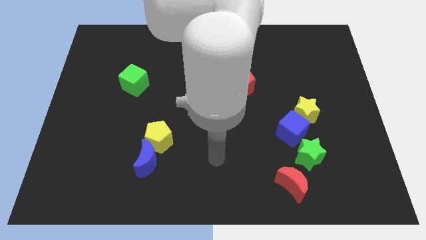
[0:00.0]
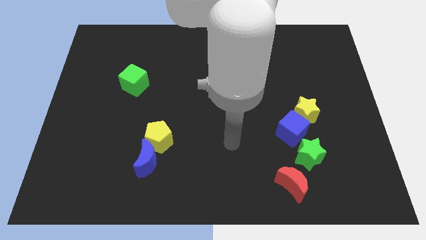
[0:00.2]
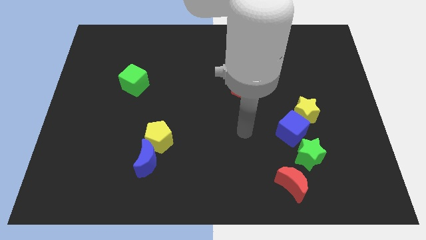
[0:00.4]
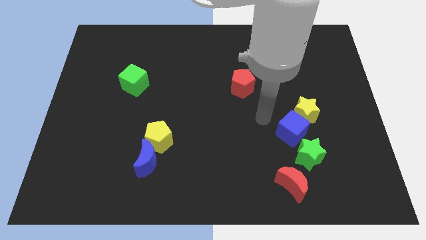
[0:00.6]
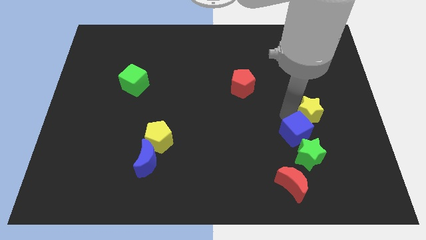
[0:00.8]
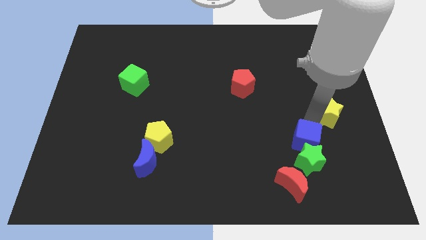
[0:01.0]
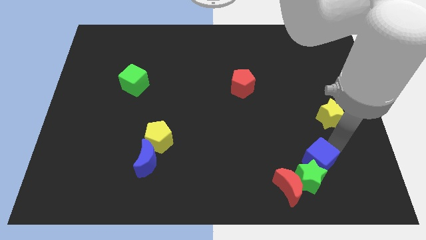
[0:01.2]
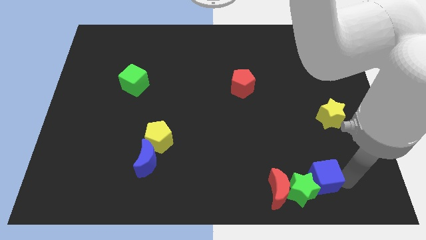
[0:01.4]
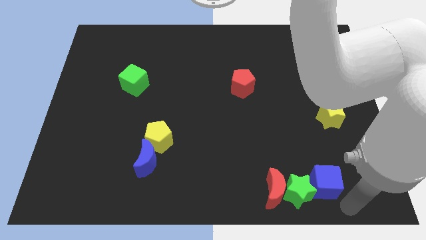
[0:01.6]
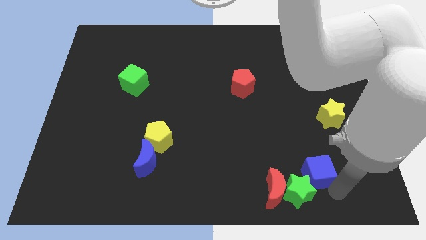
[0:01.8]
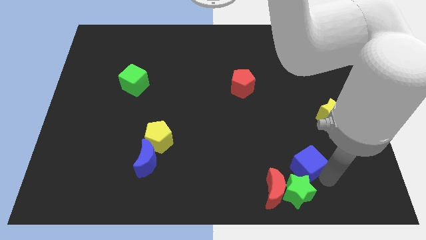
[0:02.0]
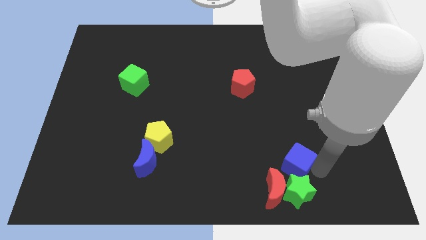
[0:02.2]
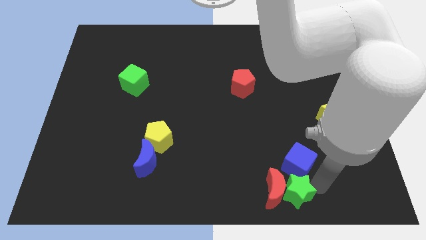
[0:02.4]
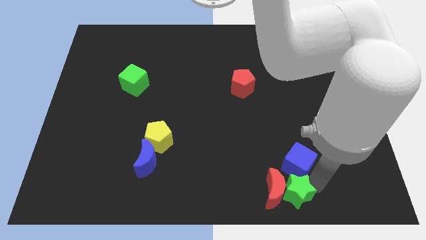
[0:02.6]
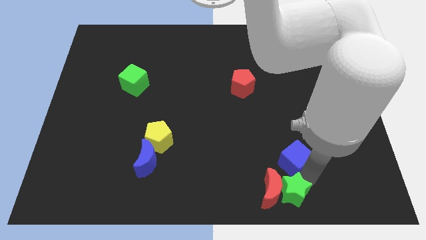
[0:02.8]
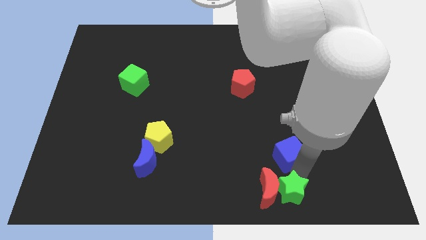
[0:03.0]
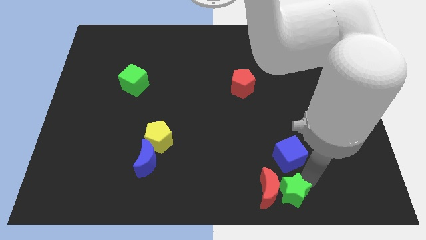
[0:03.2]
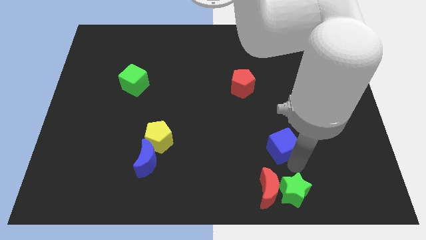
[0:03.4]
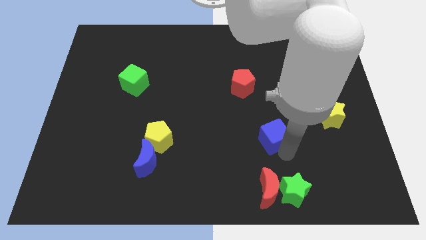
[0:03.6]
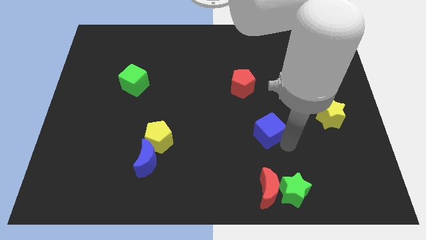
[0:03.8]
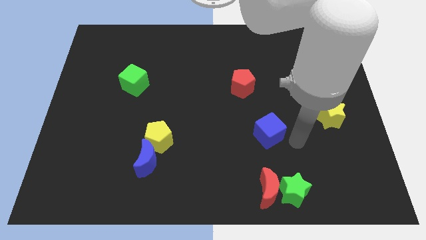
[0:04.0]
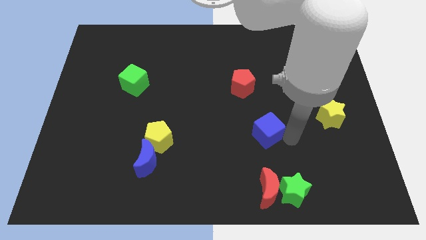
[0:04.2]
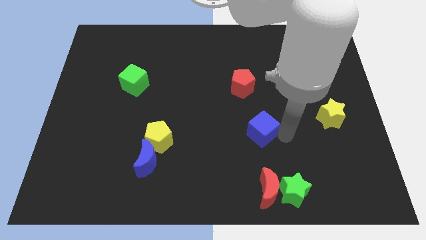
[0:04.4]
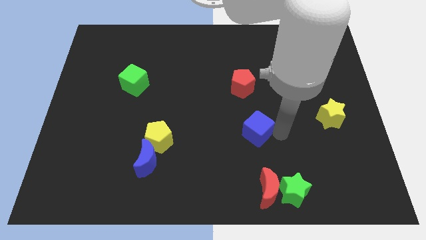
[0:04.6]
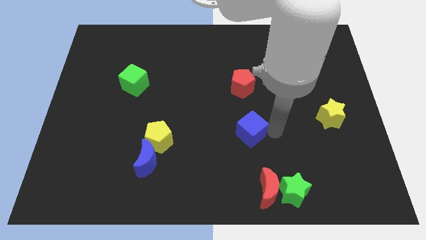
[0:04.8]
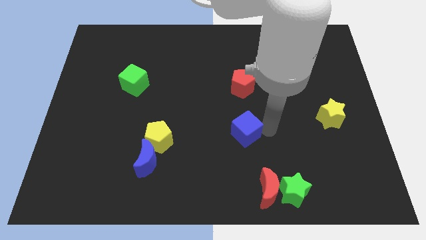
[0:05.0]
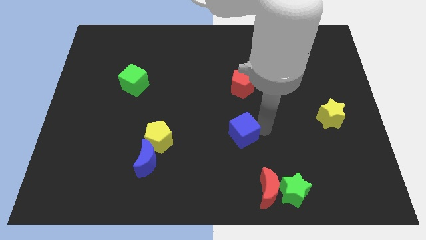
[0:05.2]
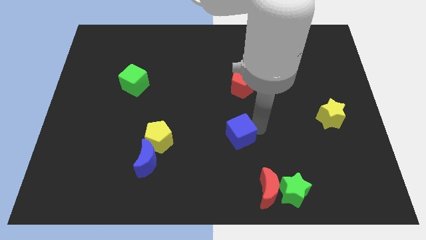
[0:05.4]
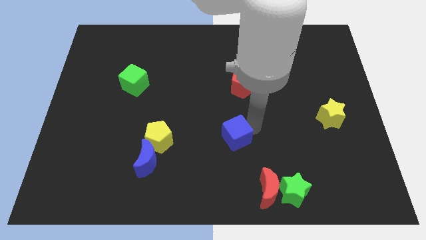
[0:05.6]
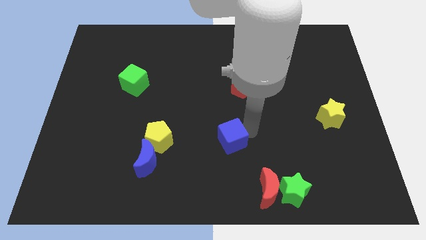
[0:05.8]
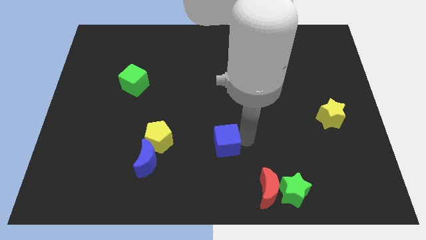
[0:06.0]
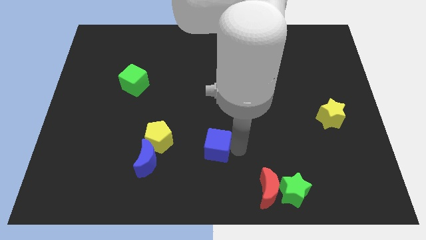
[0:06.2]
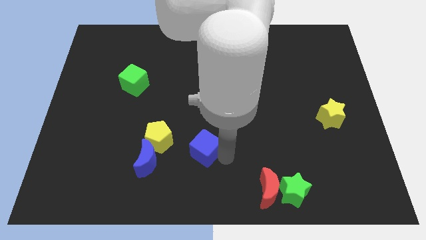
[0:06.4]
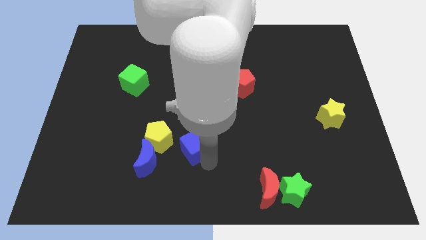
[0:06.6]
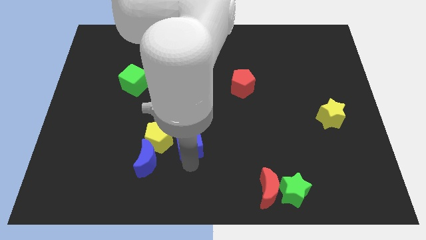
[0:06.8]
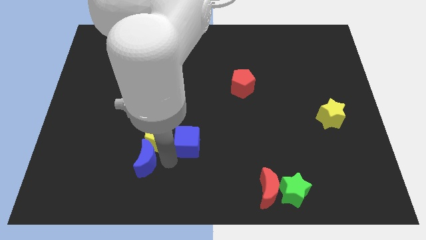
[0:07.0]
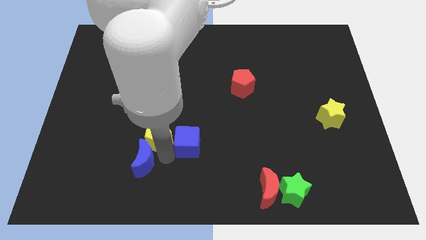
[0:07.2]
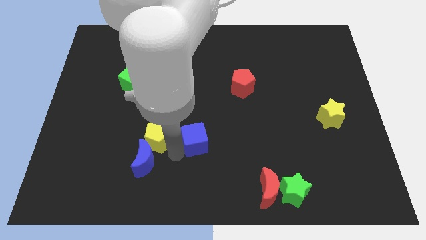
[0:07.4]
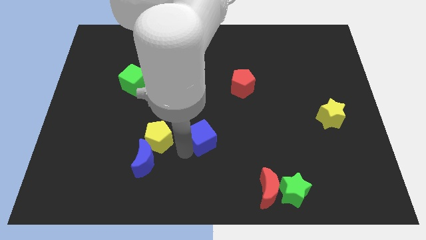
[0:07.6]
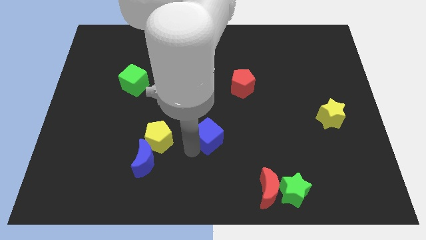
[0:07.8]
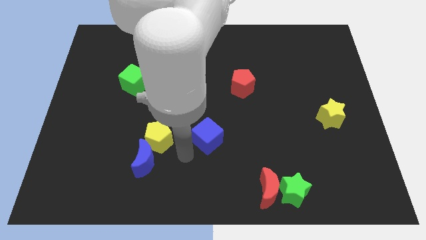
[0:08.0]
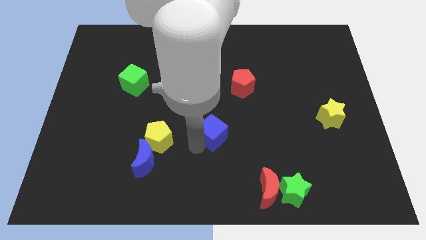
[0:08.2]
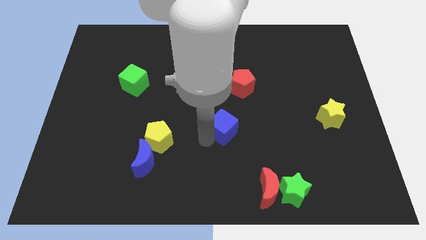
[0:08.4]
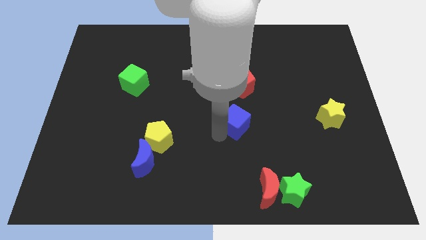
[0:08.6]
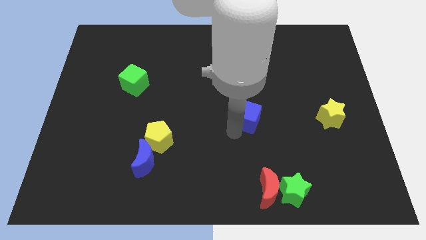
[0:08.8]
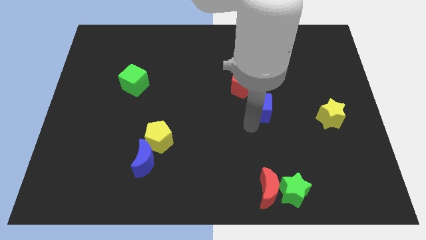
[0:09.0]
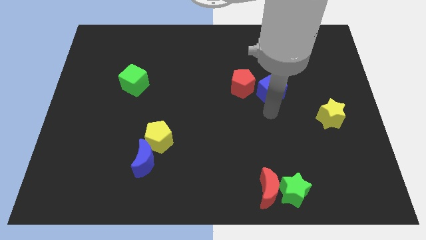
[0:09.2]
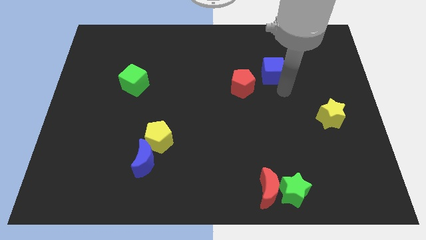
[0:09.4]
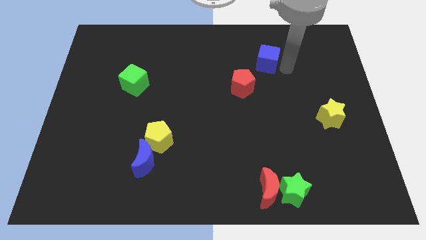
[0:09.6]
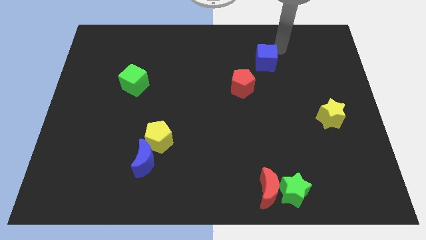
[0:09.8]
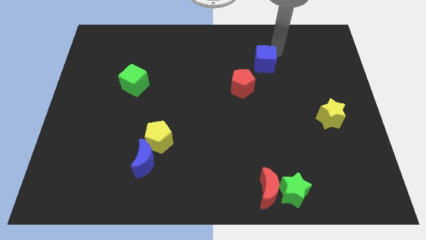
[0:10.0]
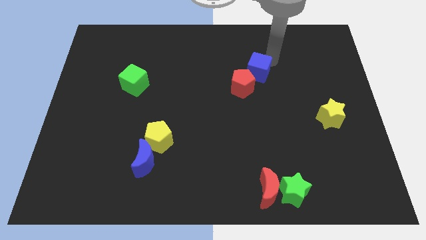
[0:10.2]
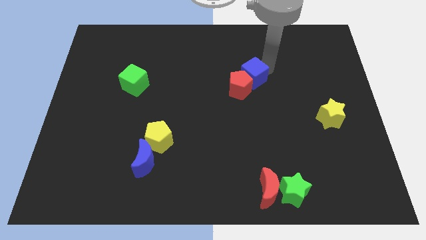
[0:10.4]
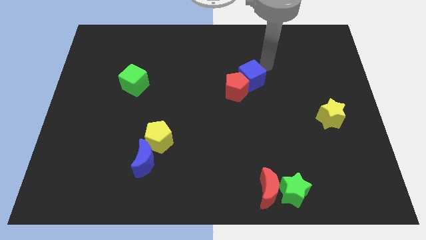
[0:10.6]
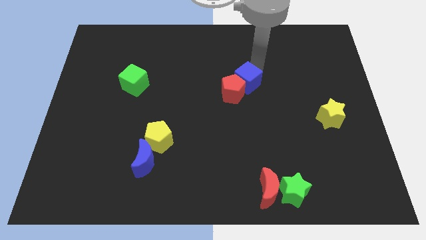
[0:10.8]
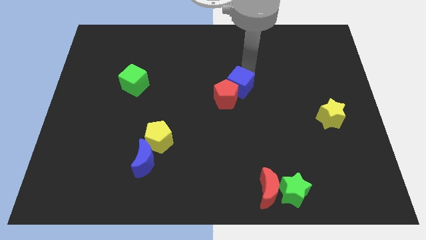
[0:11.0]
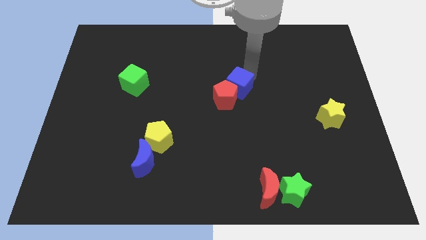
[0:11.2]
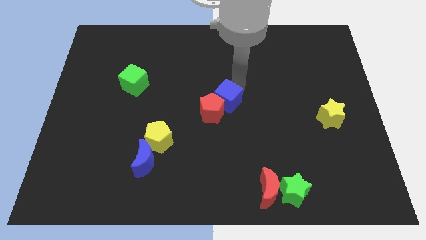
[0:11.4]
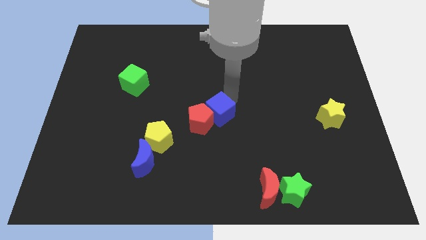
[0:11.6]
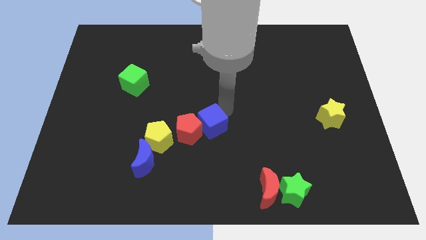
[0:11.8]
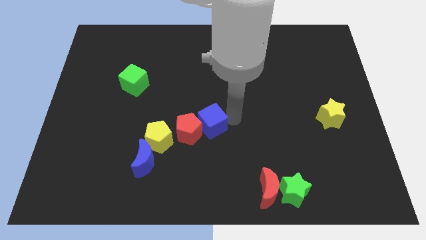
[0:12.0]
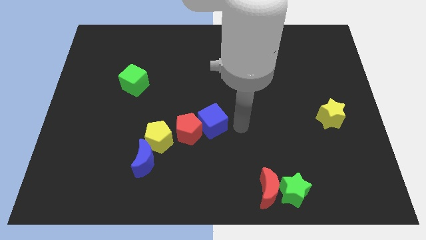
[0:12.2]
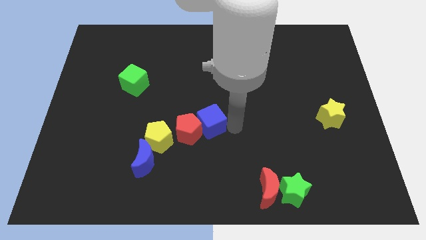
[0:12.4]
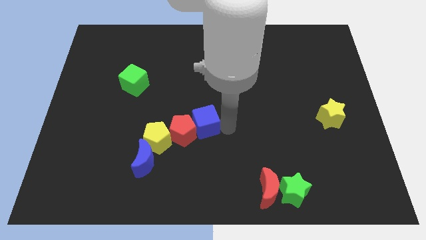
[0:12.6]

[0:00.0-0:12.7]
put the blue cube diagonally up and to the right of the yellow pentagon
